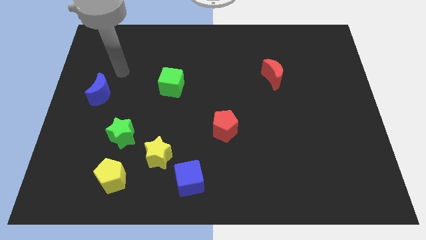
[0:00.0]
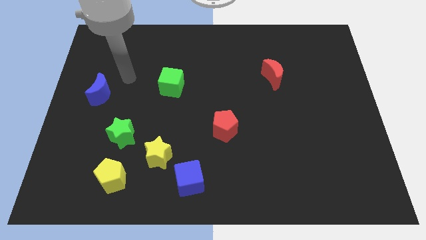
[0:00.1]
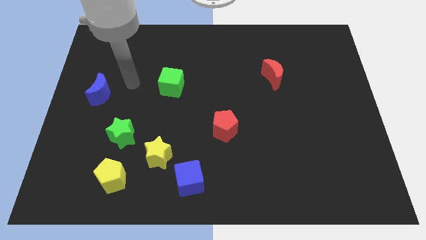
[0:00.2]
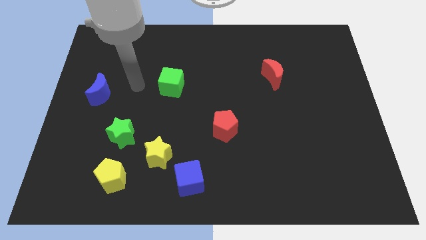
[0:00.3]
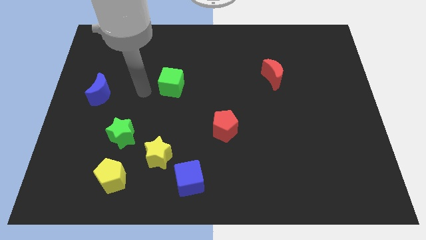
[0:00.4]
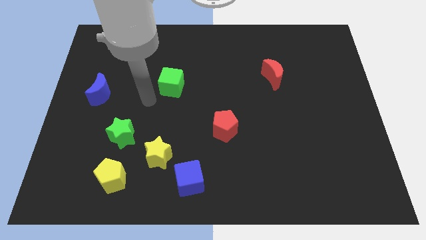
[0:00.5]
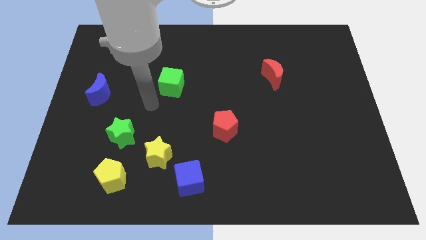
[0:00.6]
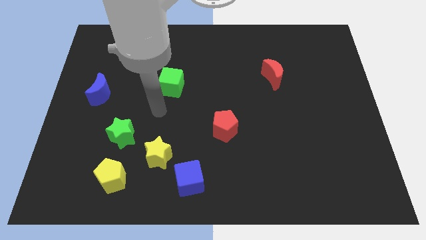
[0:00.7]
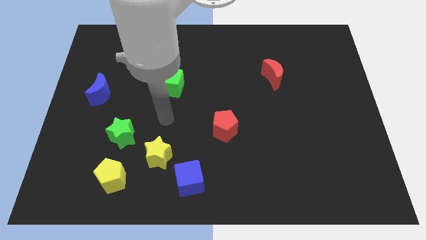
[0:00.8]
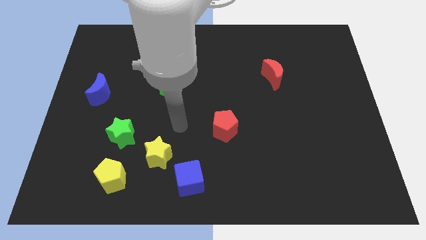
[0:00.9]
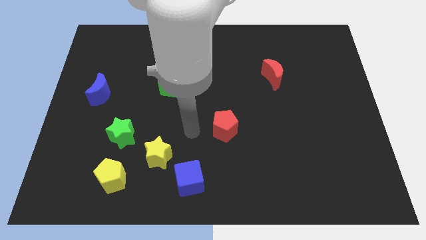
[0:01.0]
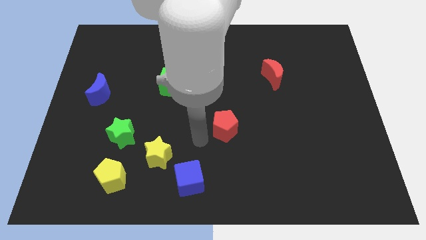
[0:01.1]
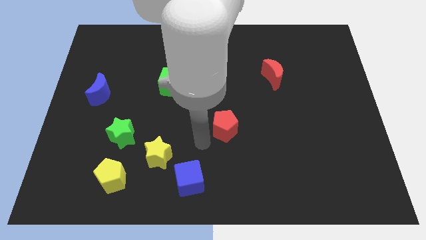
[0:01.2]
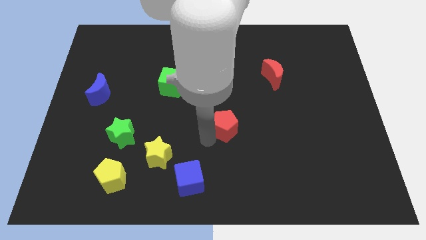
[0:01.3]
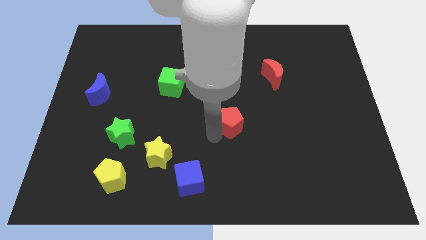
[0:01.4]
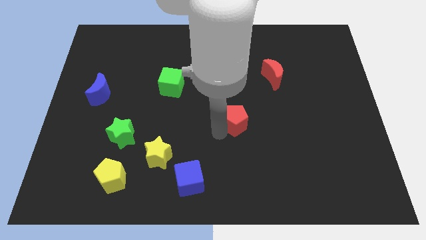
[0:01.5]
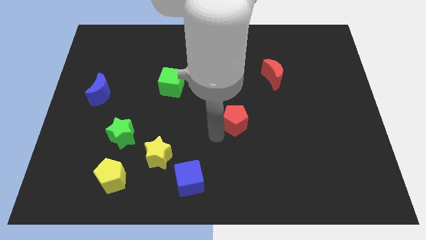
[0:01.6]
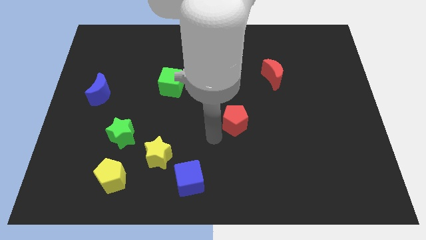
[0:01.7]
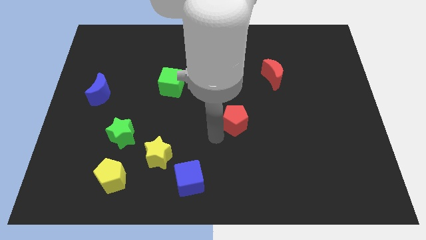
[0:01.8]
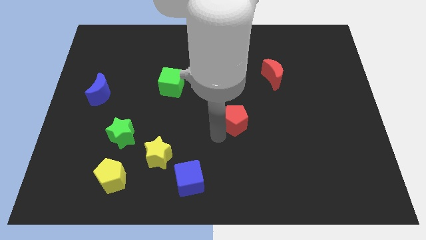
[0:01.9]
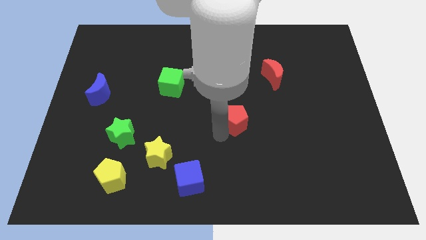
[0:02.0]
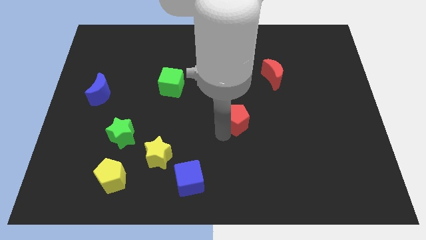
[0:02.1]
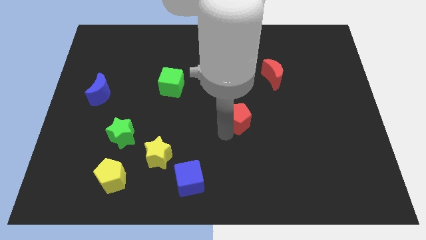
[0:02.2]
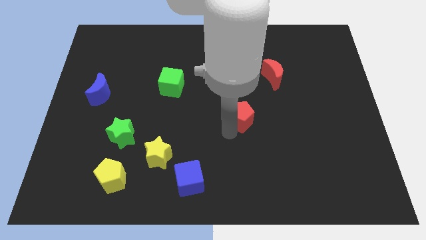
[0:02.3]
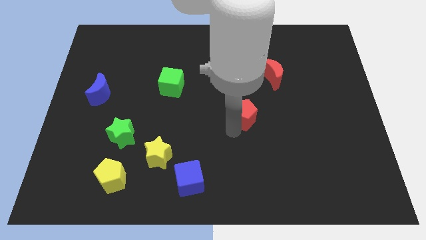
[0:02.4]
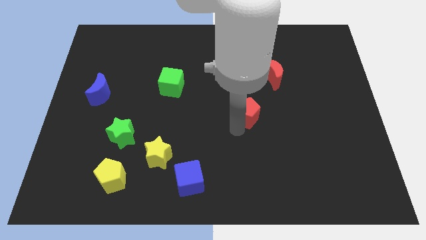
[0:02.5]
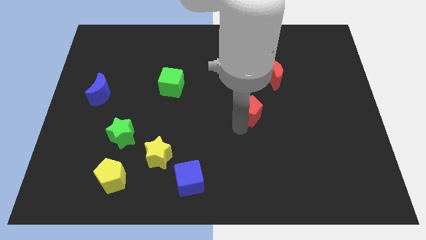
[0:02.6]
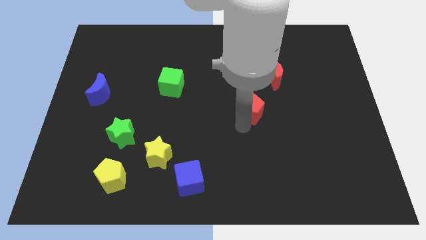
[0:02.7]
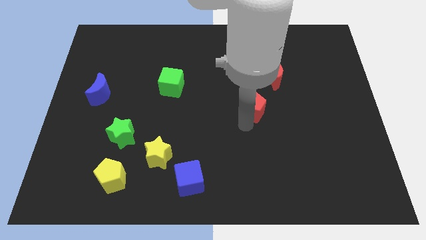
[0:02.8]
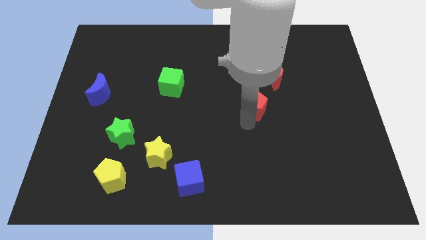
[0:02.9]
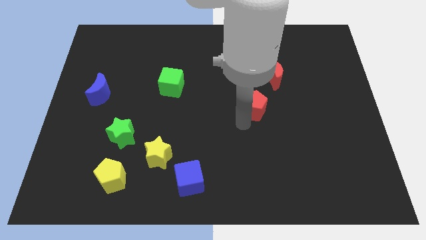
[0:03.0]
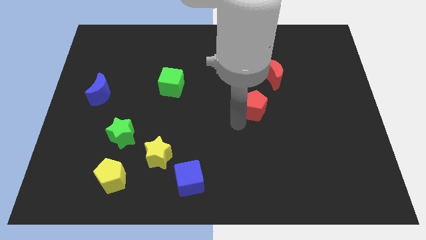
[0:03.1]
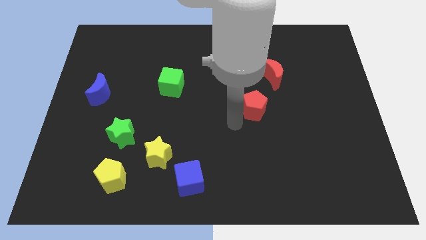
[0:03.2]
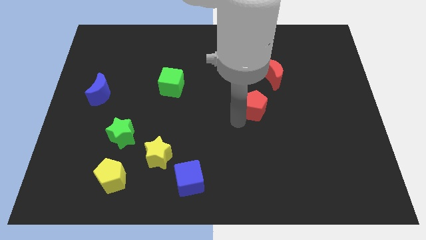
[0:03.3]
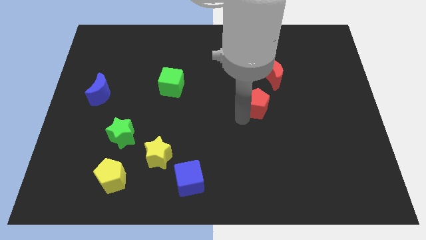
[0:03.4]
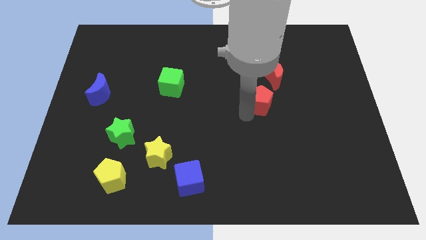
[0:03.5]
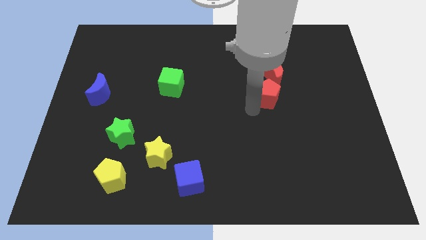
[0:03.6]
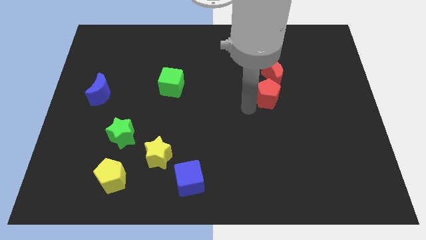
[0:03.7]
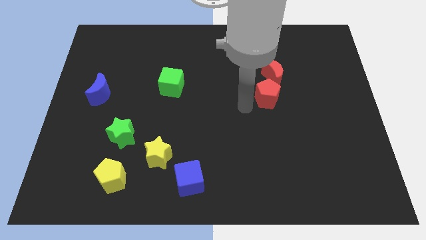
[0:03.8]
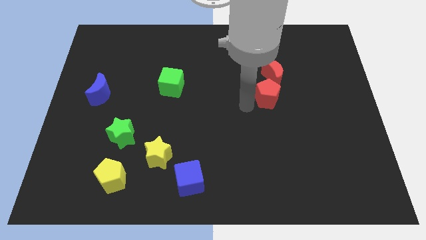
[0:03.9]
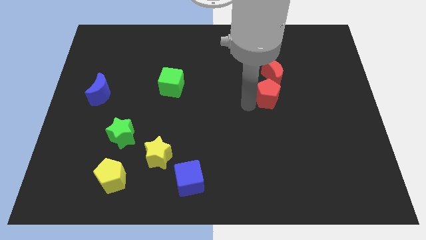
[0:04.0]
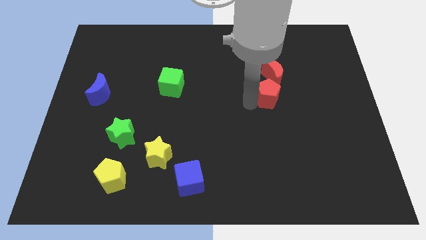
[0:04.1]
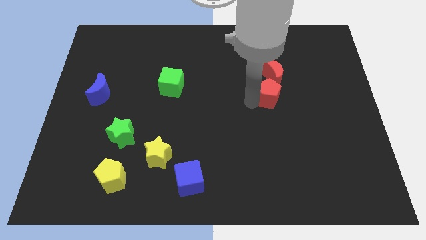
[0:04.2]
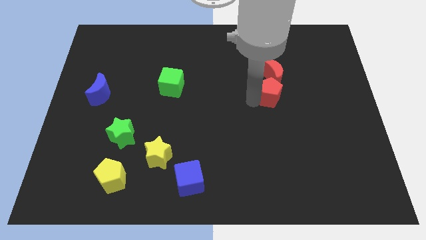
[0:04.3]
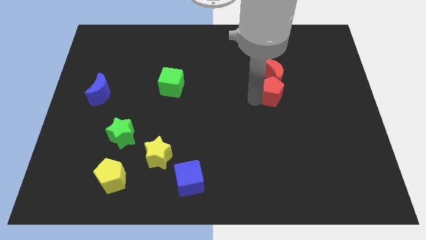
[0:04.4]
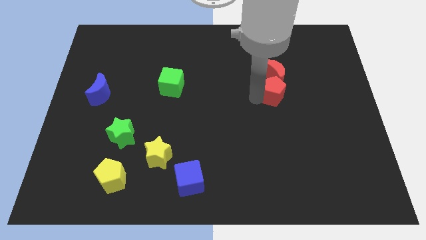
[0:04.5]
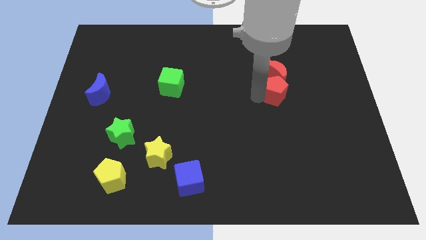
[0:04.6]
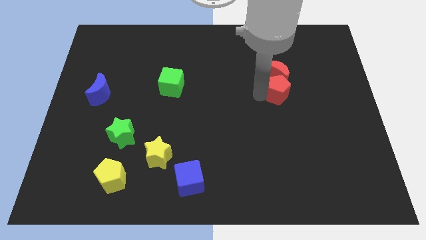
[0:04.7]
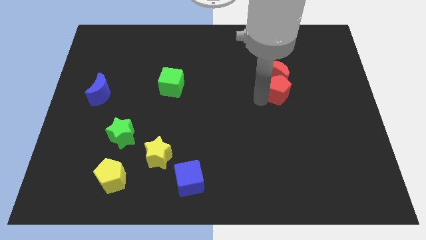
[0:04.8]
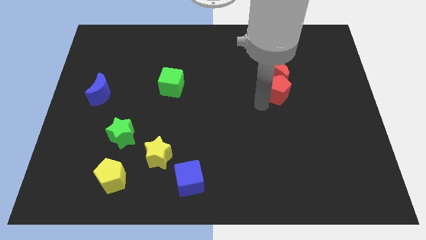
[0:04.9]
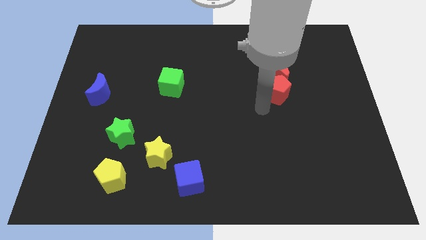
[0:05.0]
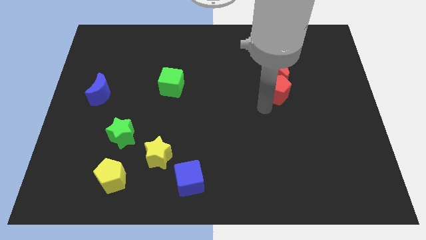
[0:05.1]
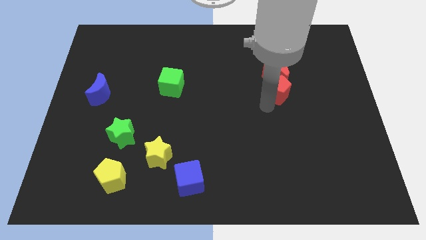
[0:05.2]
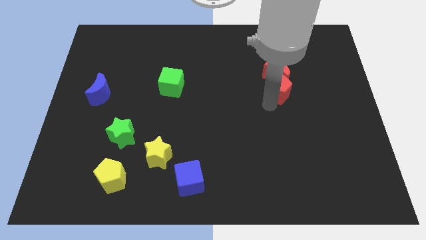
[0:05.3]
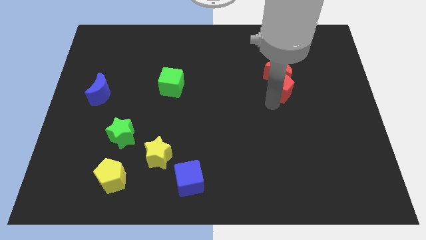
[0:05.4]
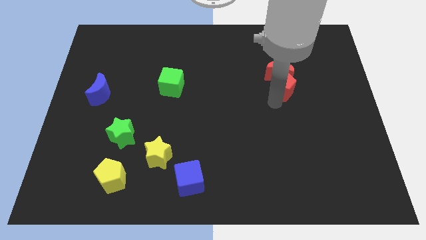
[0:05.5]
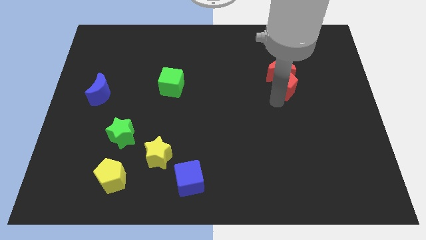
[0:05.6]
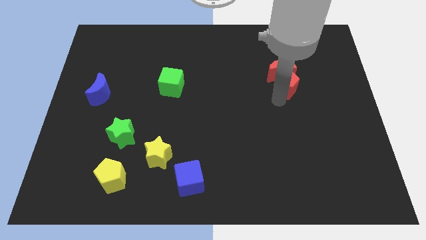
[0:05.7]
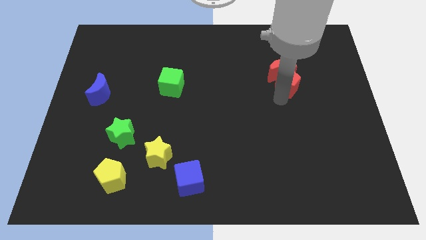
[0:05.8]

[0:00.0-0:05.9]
push the red pentagon upwards and then right

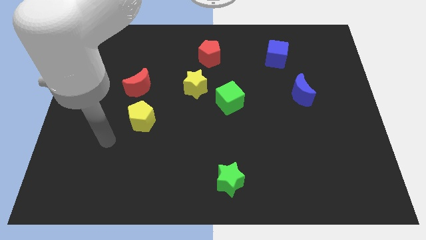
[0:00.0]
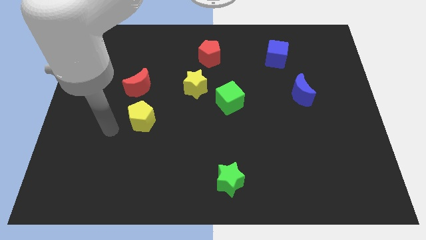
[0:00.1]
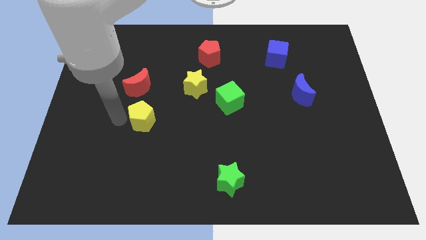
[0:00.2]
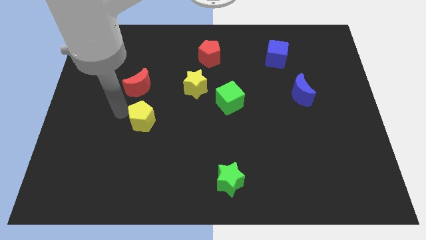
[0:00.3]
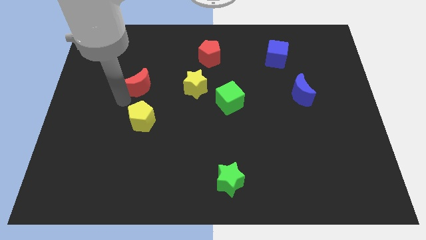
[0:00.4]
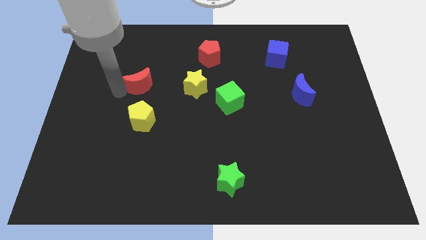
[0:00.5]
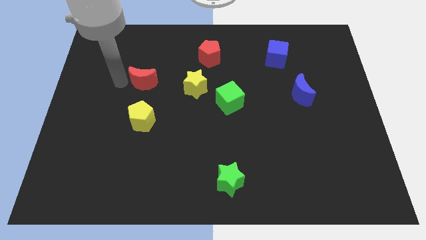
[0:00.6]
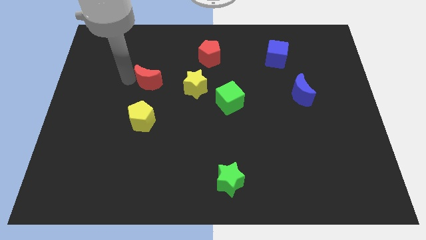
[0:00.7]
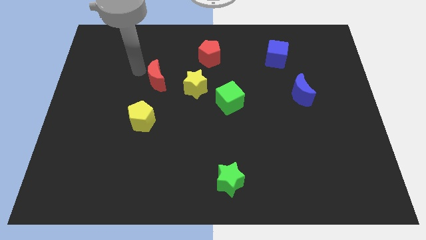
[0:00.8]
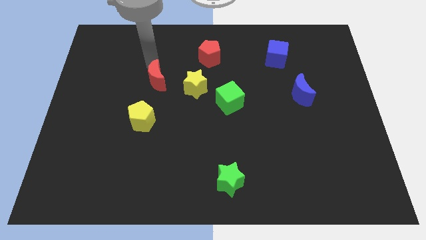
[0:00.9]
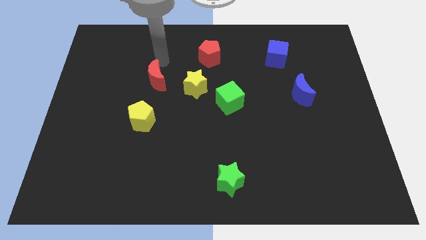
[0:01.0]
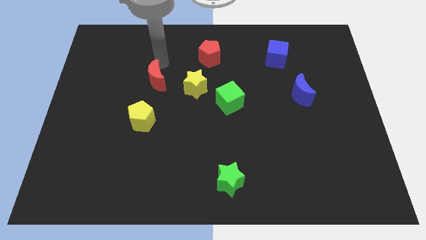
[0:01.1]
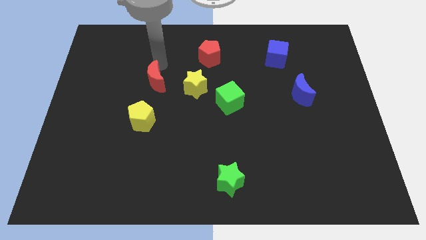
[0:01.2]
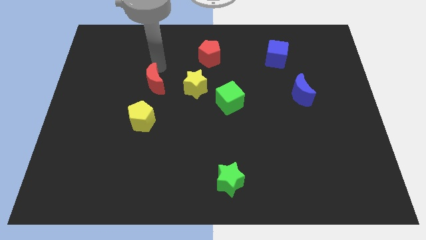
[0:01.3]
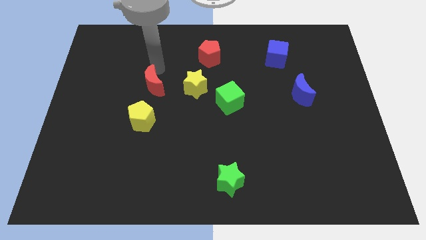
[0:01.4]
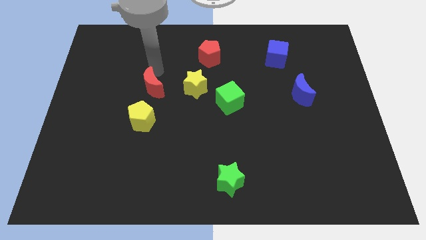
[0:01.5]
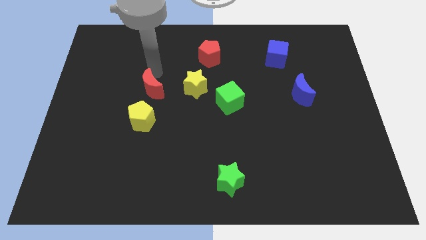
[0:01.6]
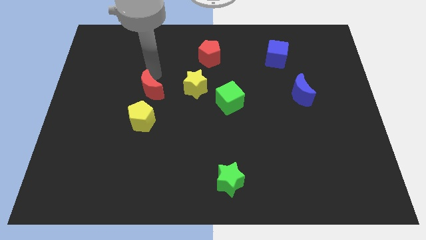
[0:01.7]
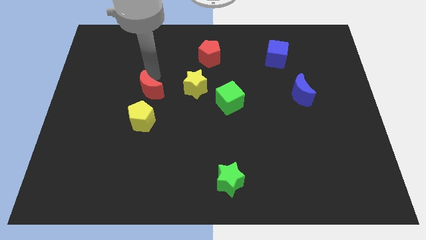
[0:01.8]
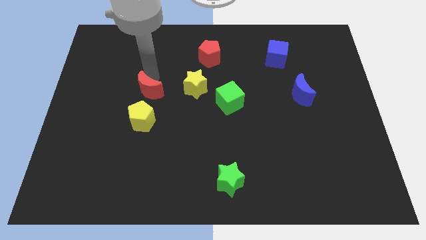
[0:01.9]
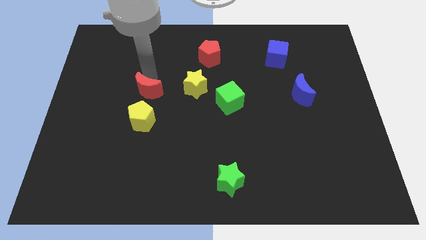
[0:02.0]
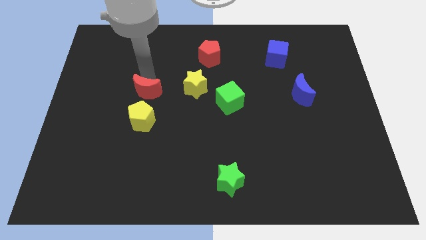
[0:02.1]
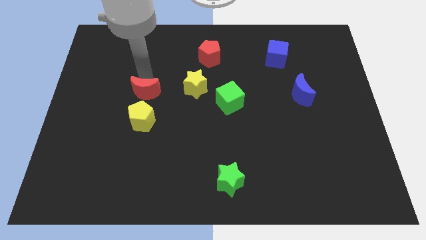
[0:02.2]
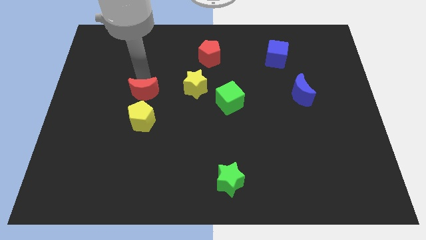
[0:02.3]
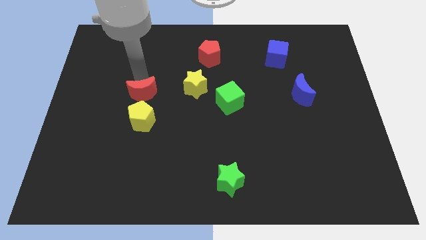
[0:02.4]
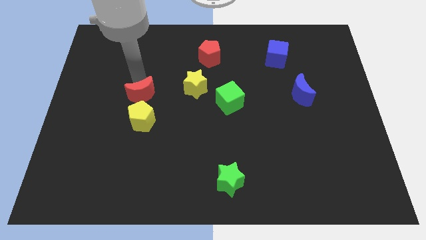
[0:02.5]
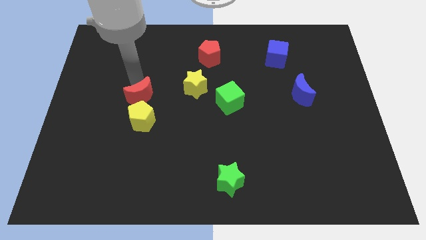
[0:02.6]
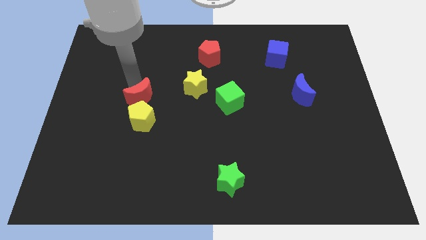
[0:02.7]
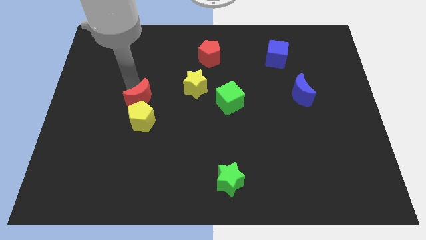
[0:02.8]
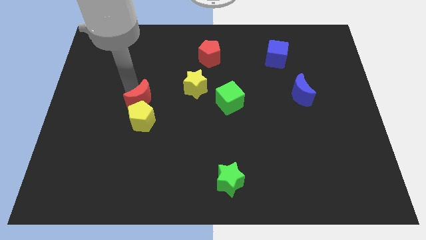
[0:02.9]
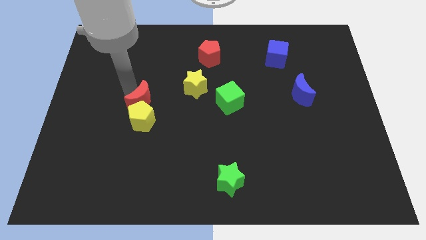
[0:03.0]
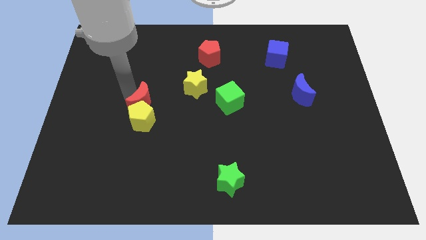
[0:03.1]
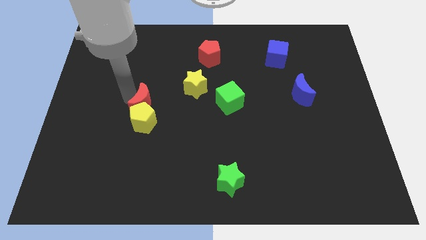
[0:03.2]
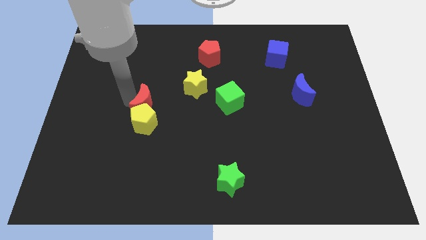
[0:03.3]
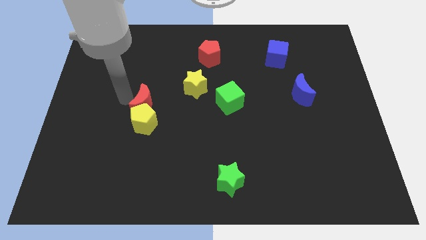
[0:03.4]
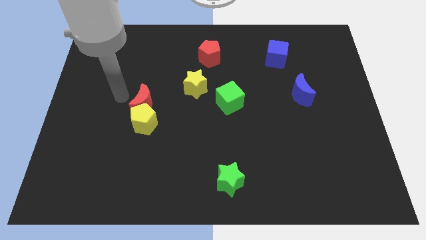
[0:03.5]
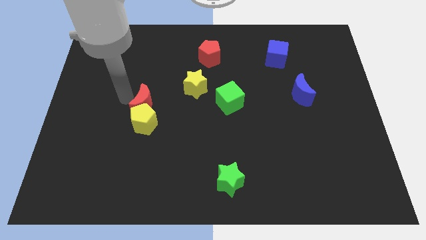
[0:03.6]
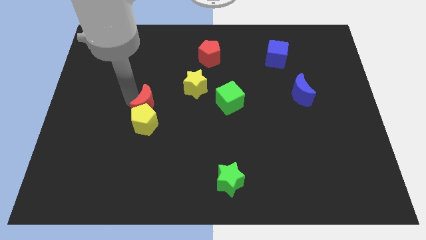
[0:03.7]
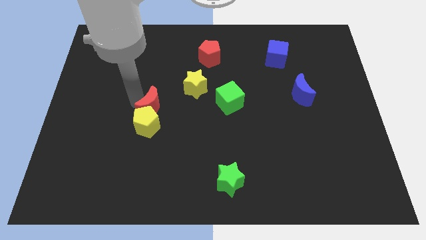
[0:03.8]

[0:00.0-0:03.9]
move the red moon a little diagonally down and right
